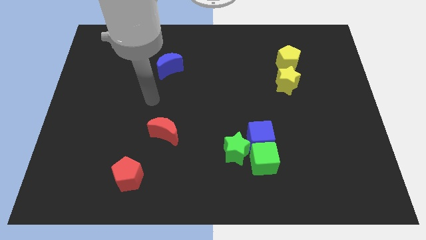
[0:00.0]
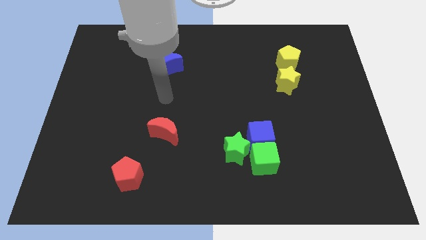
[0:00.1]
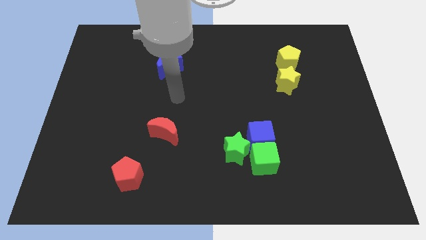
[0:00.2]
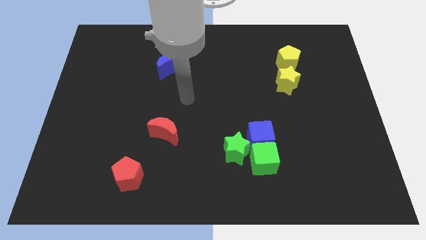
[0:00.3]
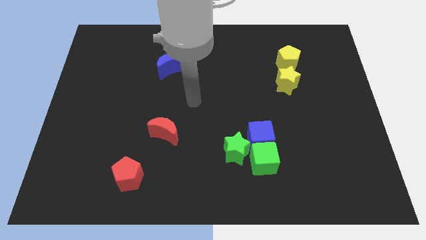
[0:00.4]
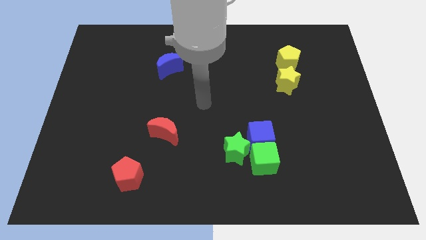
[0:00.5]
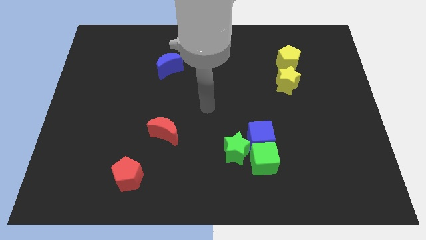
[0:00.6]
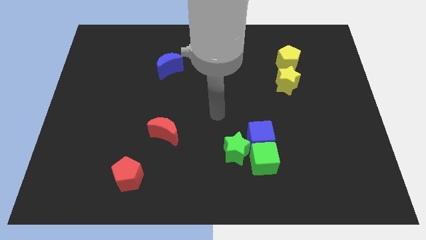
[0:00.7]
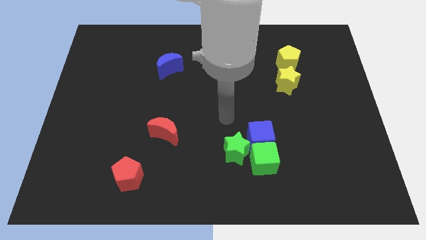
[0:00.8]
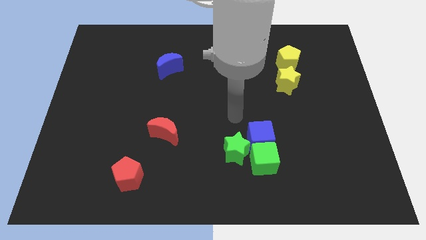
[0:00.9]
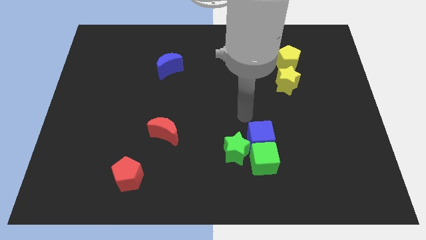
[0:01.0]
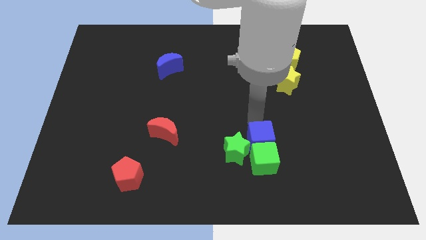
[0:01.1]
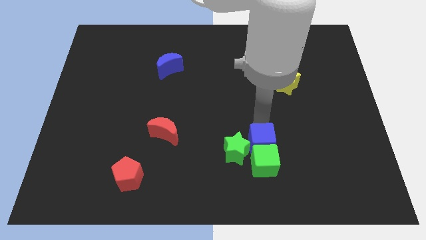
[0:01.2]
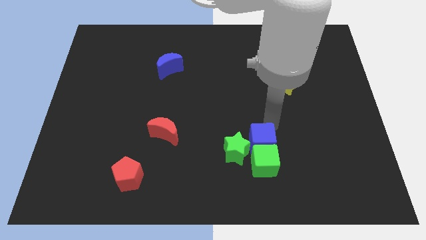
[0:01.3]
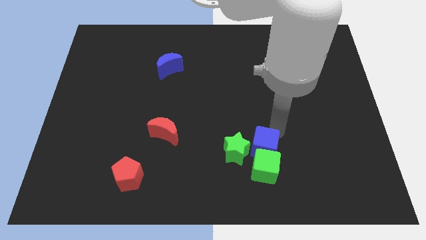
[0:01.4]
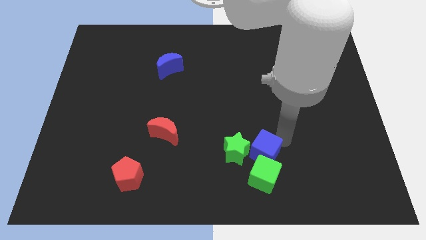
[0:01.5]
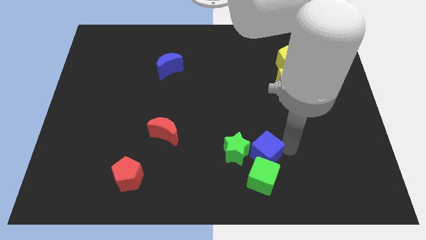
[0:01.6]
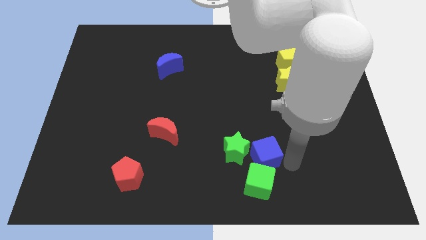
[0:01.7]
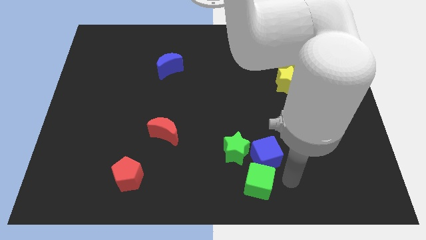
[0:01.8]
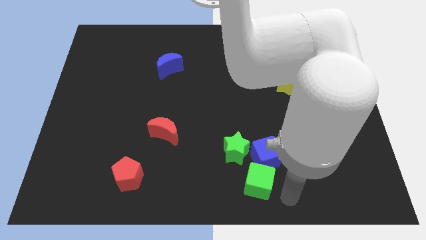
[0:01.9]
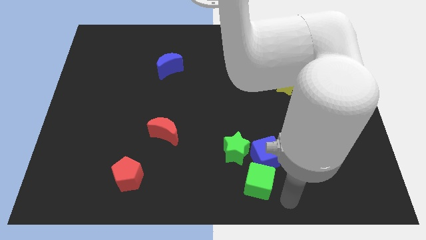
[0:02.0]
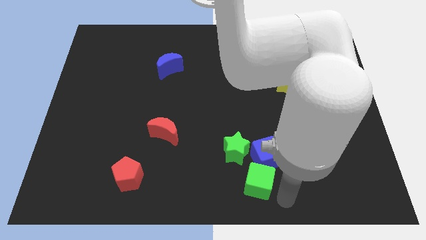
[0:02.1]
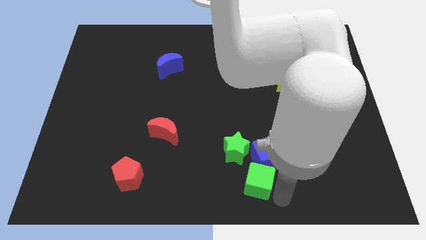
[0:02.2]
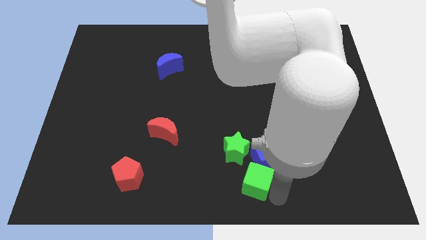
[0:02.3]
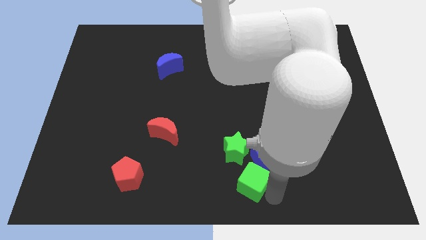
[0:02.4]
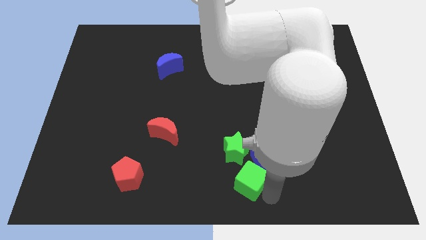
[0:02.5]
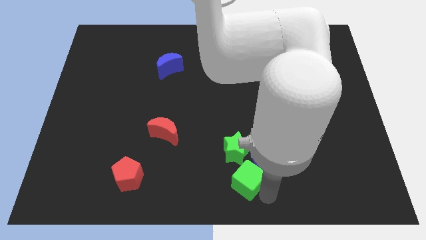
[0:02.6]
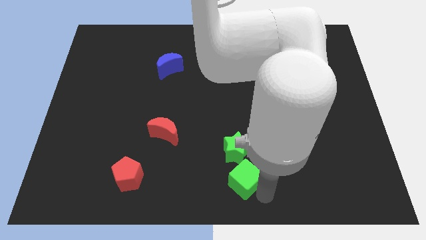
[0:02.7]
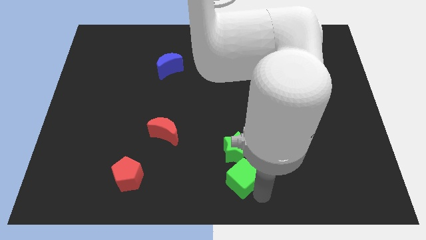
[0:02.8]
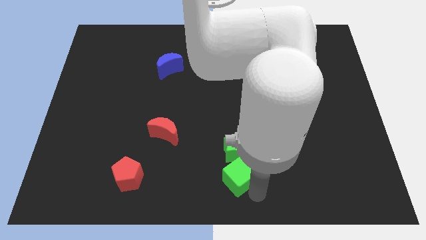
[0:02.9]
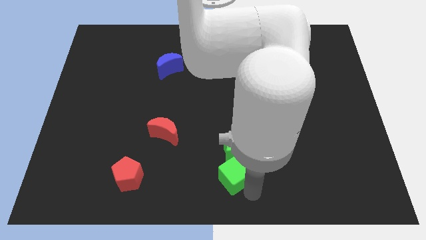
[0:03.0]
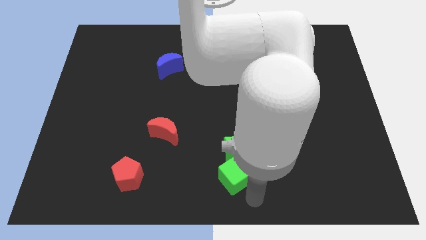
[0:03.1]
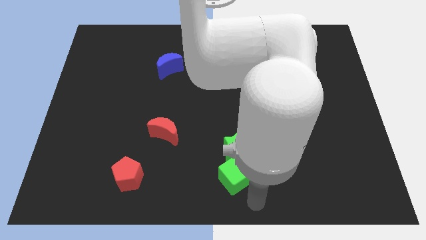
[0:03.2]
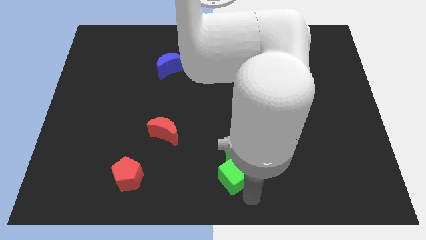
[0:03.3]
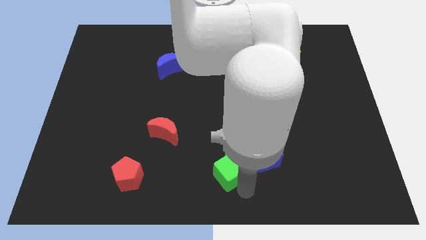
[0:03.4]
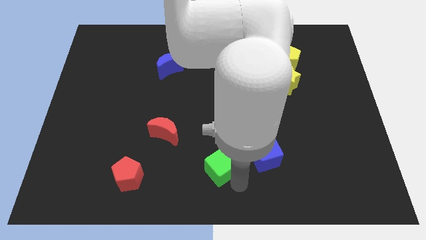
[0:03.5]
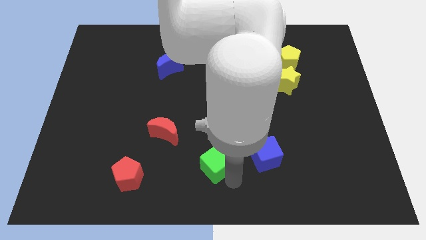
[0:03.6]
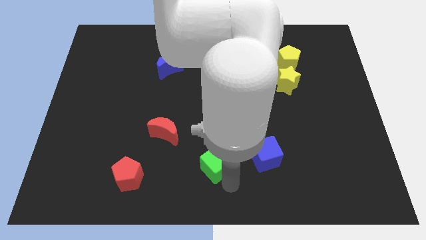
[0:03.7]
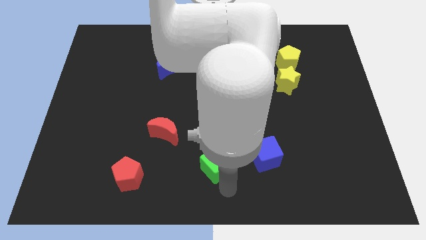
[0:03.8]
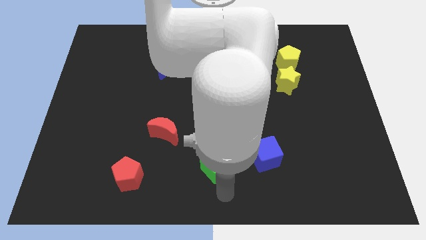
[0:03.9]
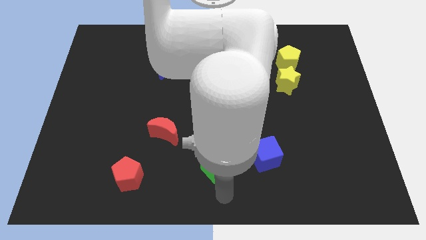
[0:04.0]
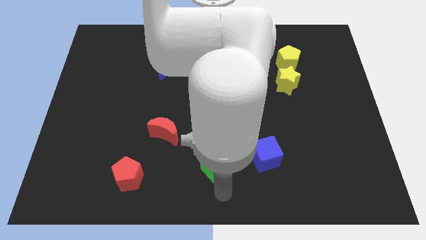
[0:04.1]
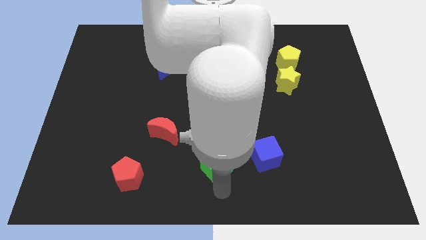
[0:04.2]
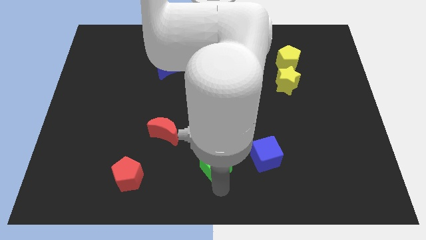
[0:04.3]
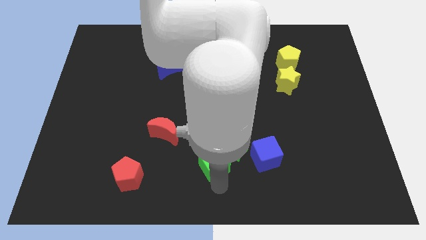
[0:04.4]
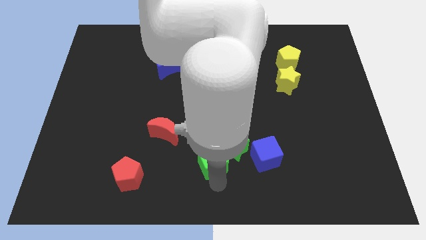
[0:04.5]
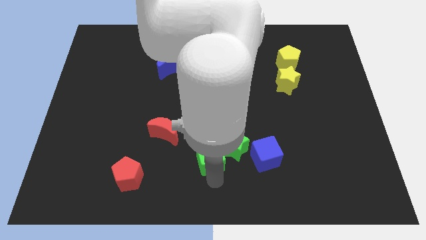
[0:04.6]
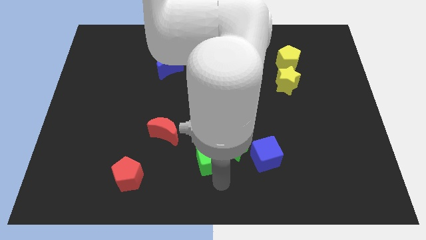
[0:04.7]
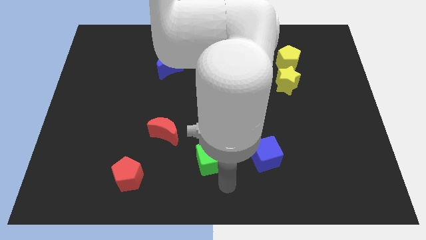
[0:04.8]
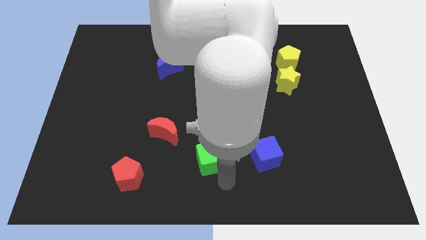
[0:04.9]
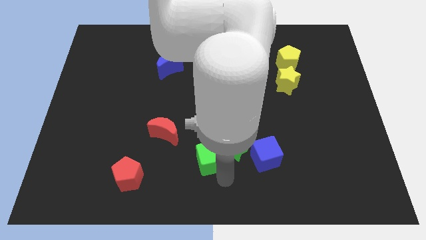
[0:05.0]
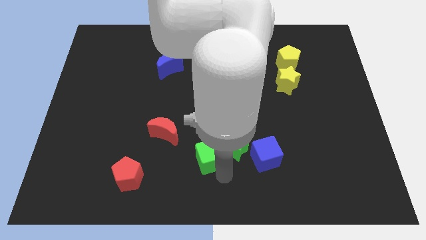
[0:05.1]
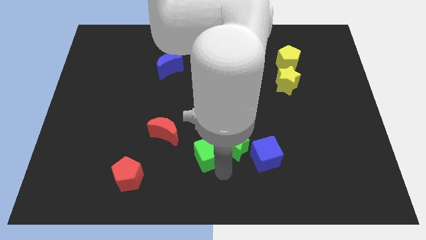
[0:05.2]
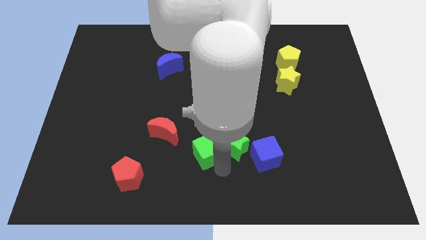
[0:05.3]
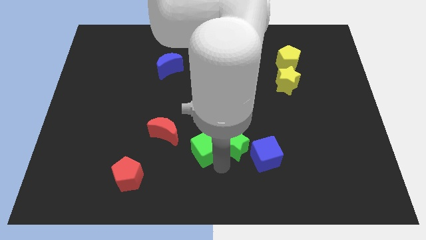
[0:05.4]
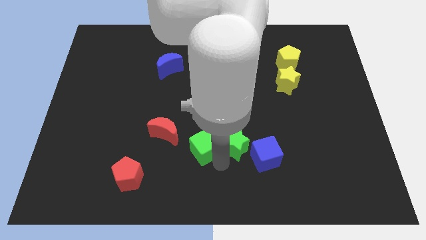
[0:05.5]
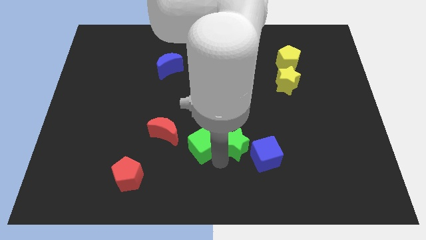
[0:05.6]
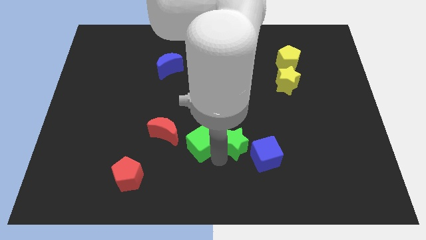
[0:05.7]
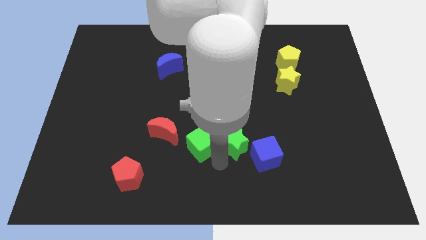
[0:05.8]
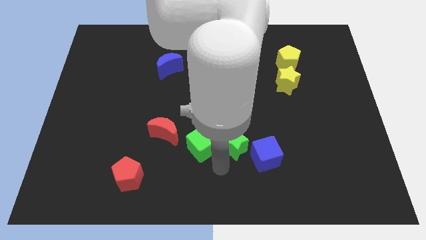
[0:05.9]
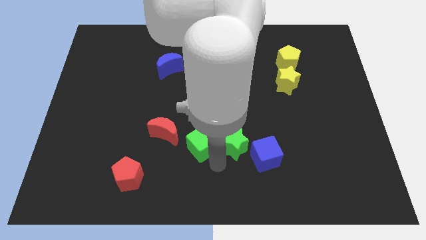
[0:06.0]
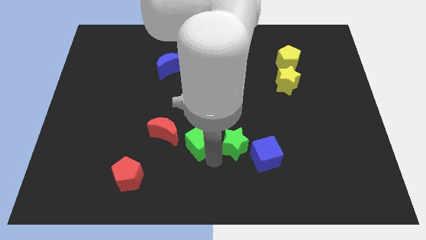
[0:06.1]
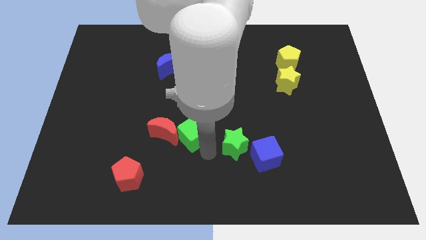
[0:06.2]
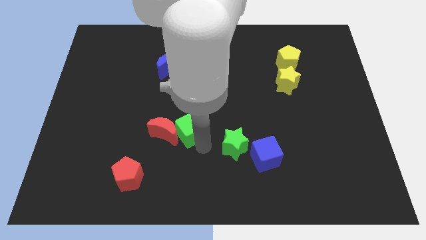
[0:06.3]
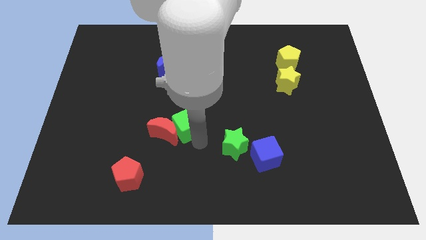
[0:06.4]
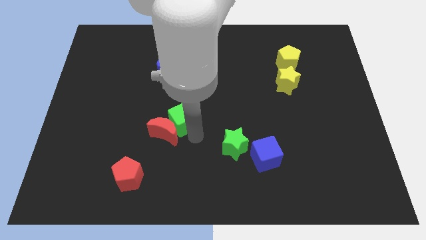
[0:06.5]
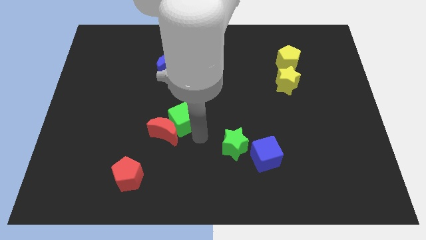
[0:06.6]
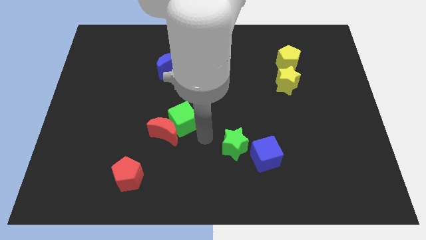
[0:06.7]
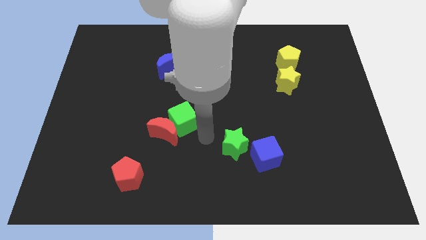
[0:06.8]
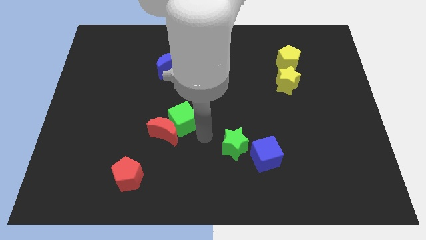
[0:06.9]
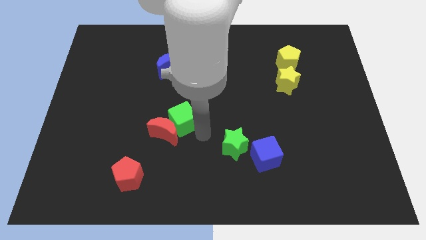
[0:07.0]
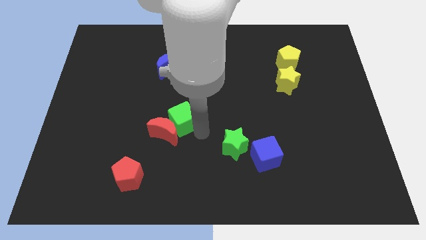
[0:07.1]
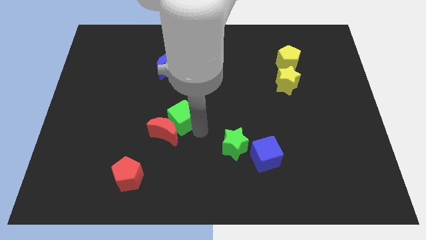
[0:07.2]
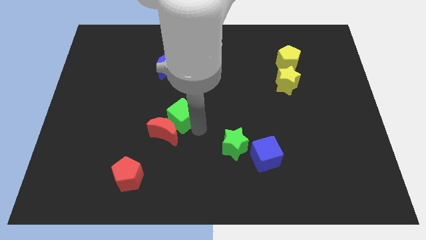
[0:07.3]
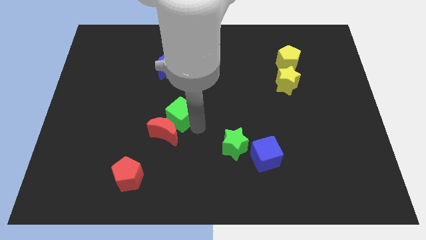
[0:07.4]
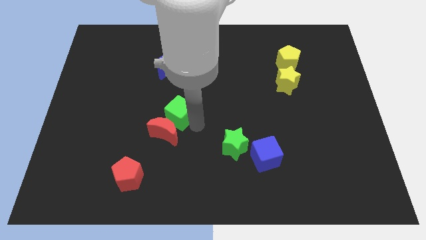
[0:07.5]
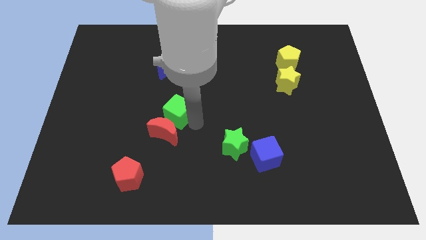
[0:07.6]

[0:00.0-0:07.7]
move the green cube below the blue moon
